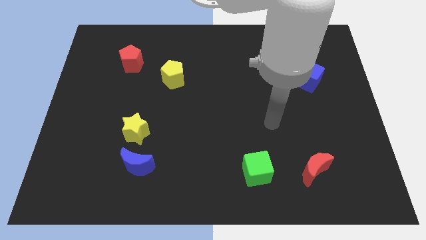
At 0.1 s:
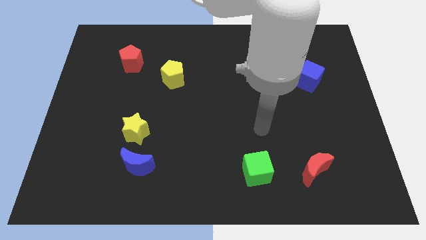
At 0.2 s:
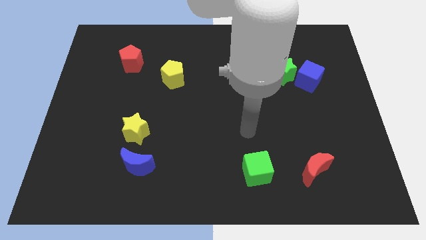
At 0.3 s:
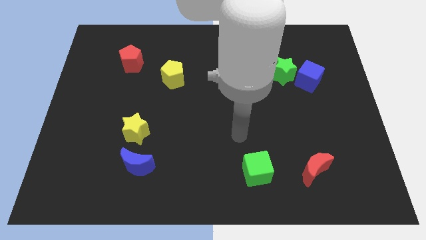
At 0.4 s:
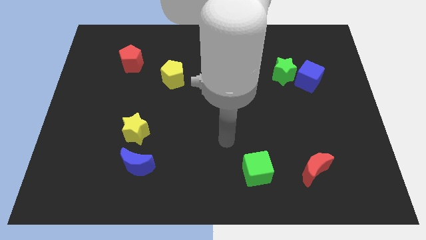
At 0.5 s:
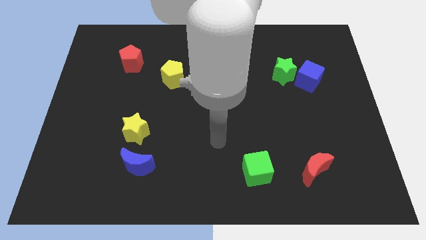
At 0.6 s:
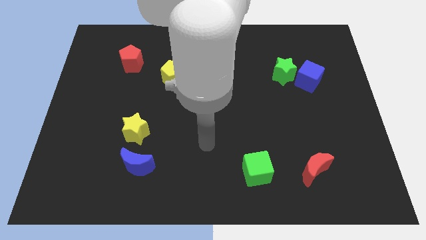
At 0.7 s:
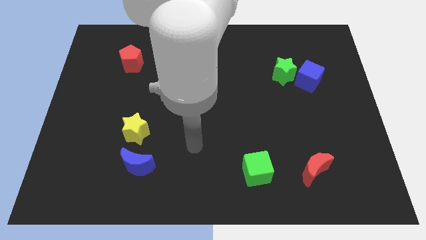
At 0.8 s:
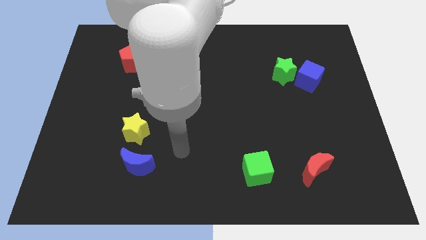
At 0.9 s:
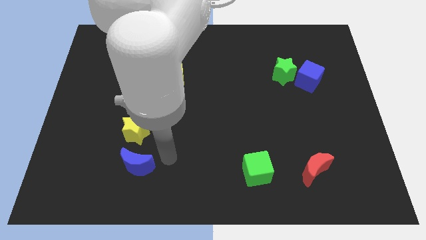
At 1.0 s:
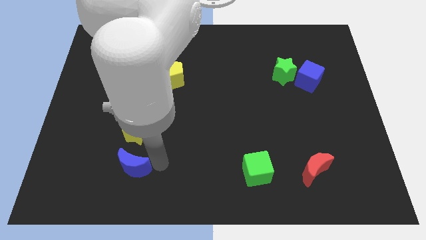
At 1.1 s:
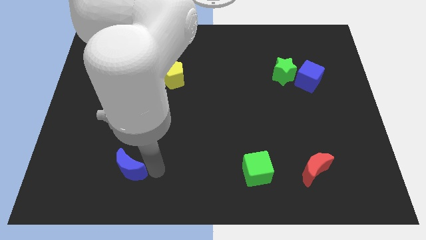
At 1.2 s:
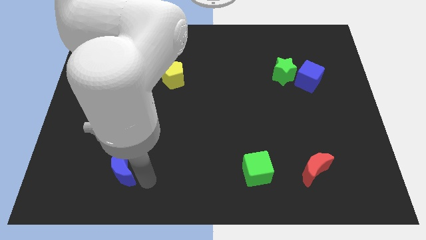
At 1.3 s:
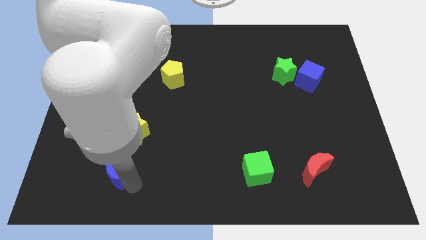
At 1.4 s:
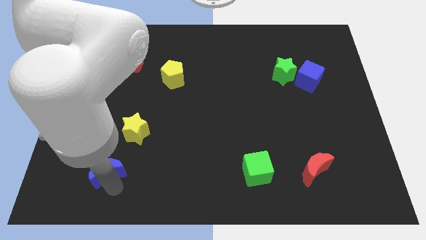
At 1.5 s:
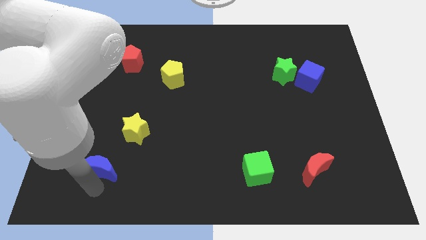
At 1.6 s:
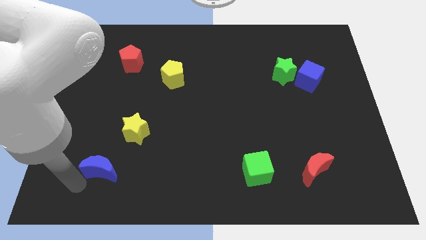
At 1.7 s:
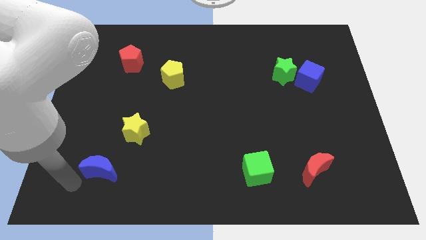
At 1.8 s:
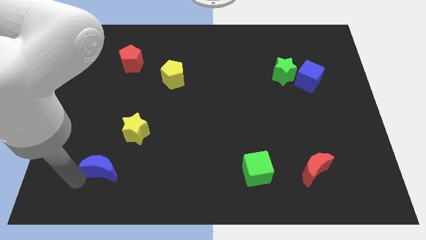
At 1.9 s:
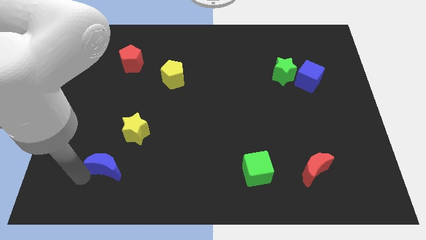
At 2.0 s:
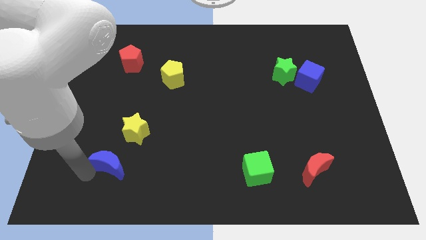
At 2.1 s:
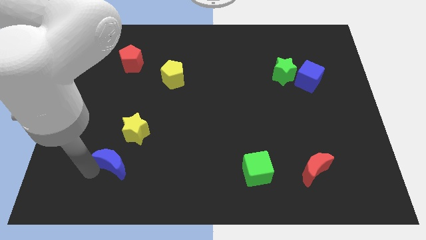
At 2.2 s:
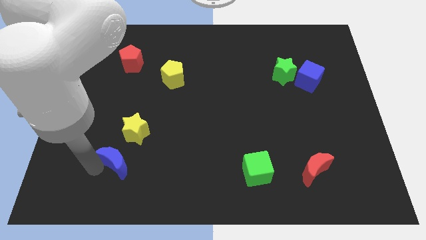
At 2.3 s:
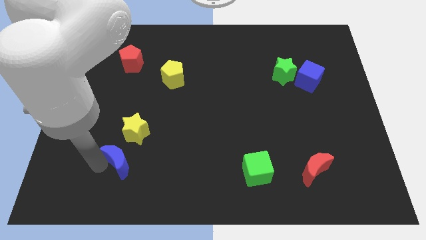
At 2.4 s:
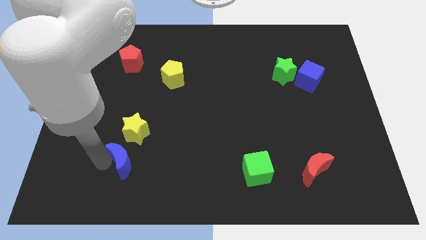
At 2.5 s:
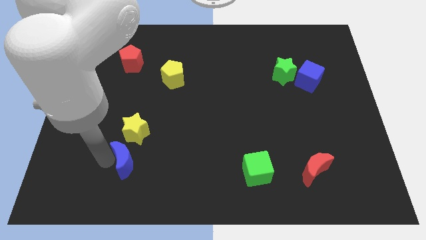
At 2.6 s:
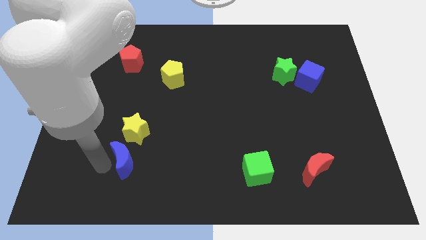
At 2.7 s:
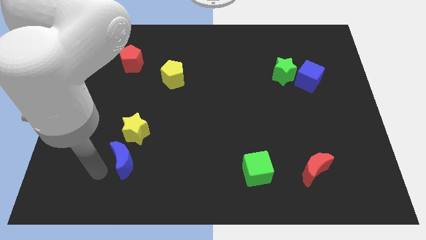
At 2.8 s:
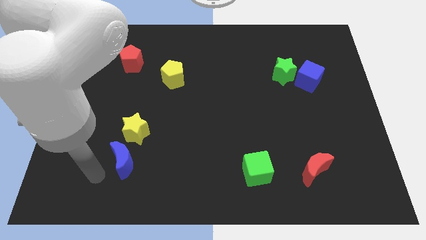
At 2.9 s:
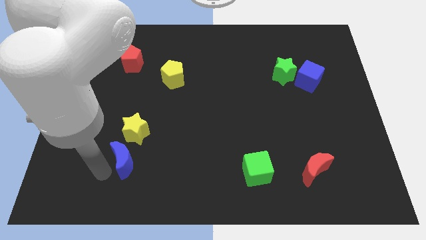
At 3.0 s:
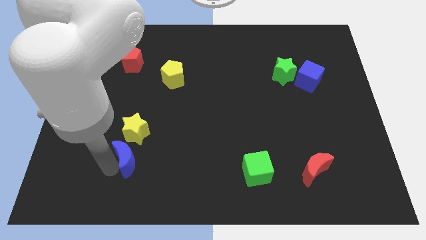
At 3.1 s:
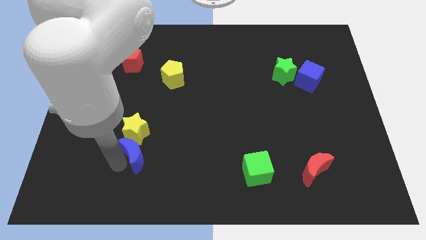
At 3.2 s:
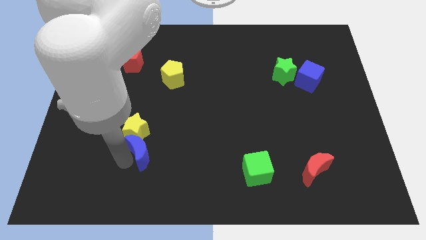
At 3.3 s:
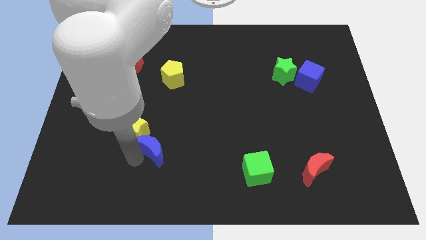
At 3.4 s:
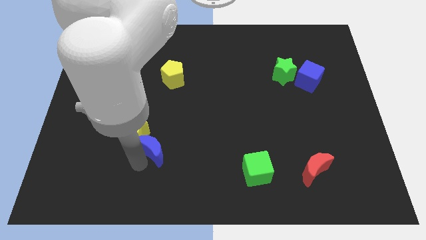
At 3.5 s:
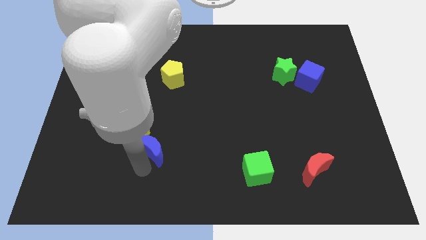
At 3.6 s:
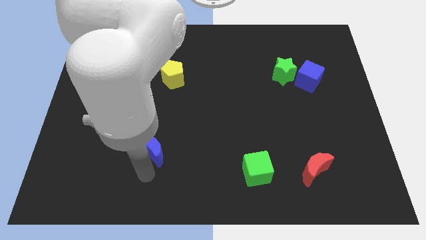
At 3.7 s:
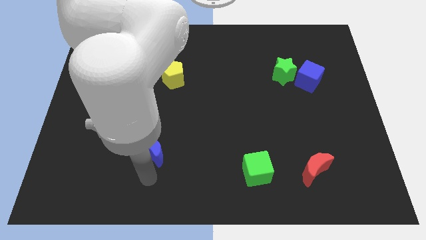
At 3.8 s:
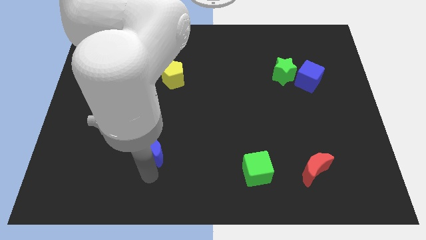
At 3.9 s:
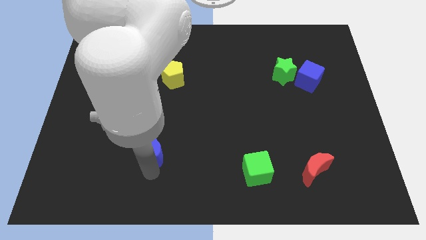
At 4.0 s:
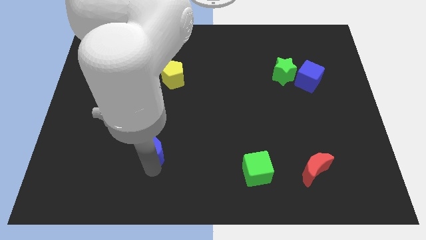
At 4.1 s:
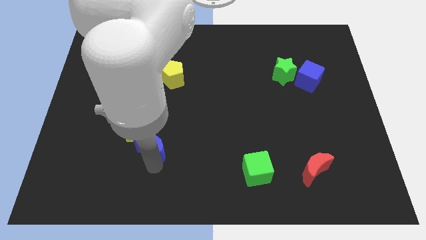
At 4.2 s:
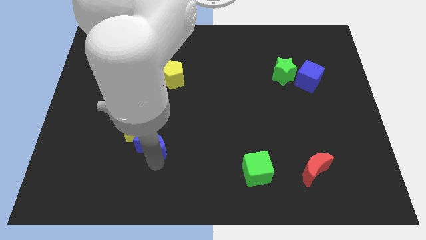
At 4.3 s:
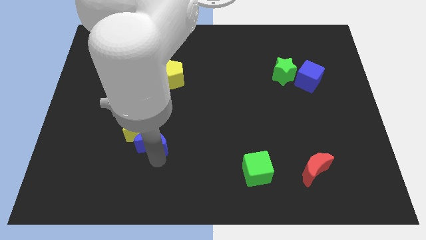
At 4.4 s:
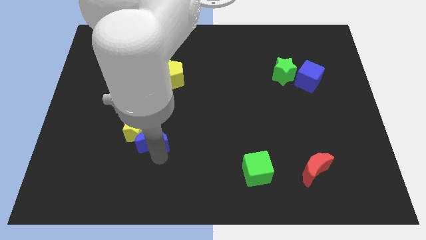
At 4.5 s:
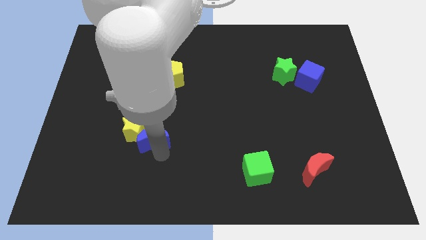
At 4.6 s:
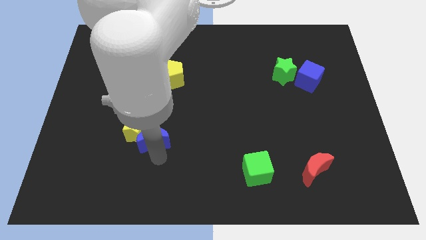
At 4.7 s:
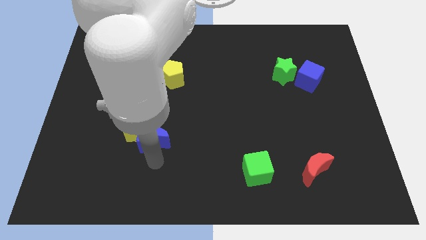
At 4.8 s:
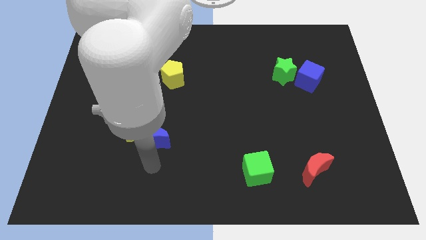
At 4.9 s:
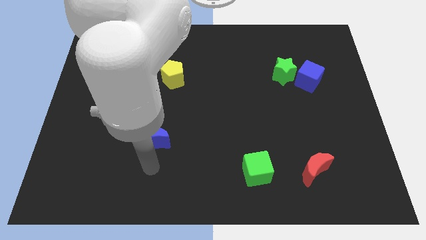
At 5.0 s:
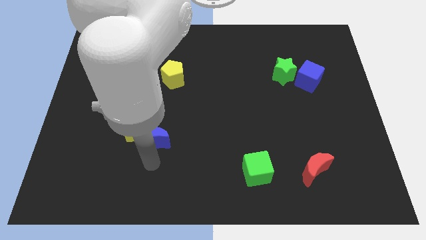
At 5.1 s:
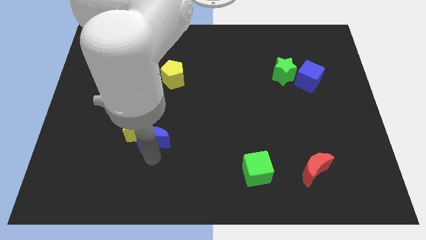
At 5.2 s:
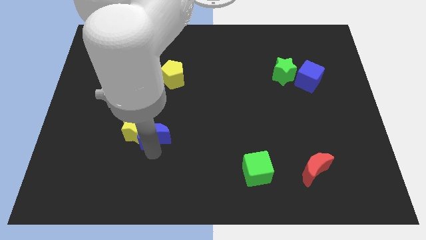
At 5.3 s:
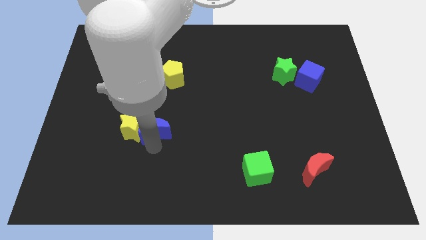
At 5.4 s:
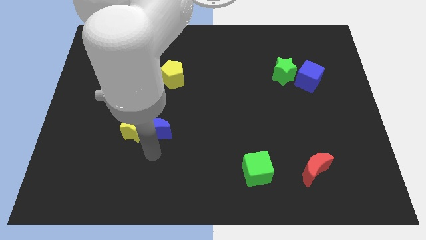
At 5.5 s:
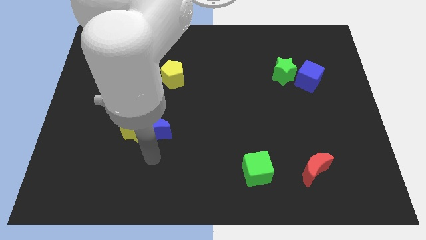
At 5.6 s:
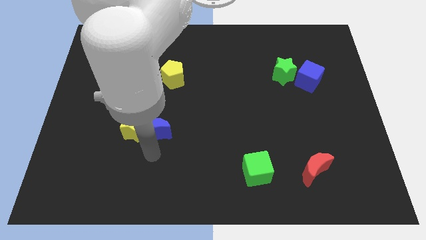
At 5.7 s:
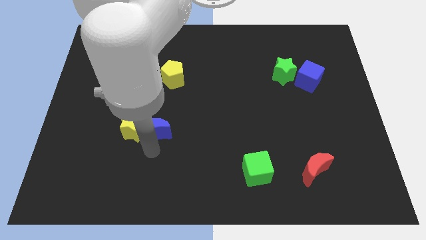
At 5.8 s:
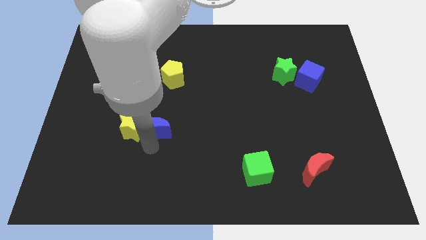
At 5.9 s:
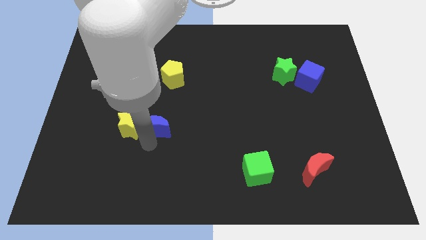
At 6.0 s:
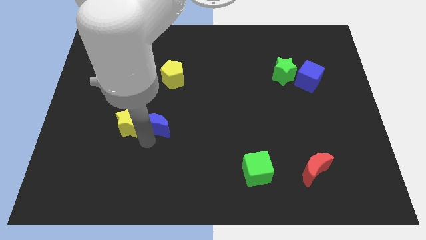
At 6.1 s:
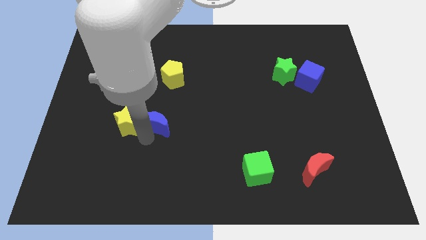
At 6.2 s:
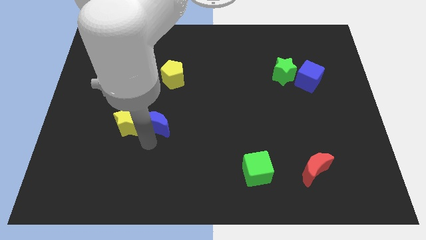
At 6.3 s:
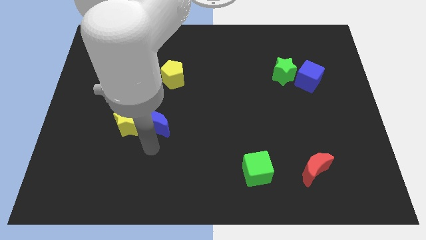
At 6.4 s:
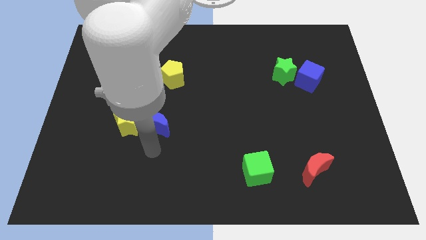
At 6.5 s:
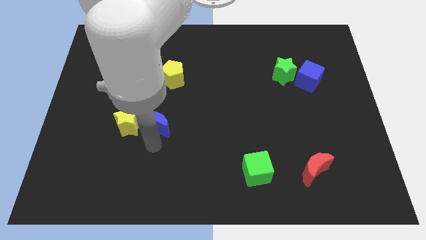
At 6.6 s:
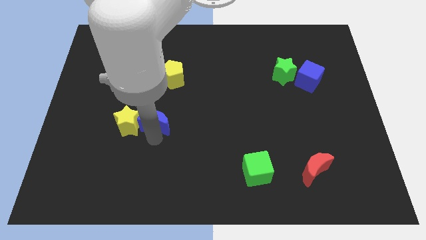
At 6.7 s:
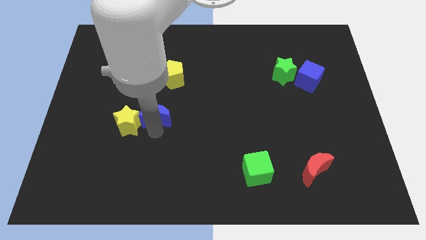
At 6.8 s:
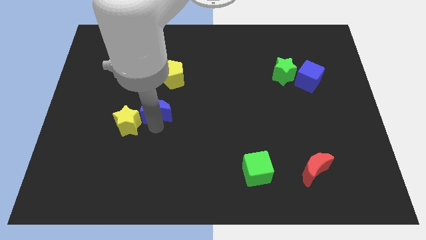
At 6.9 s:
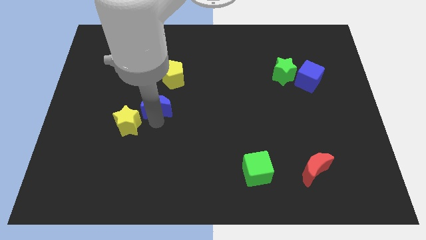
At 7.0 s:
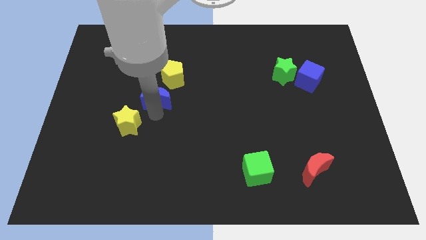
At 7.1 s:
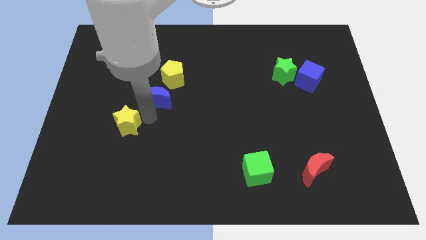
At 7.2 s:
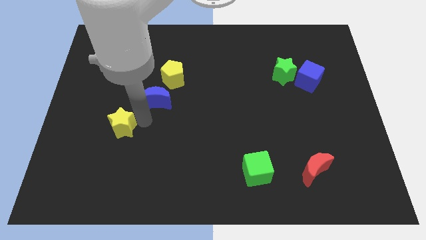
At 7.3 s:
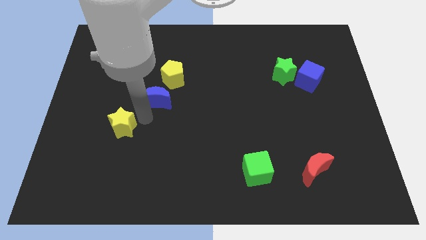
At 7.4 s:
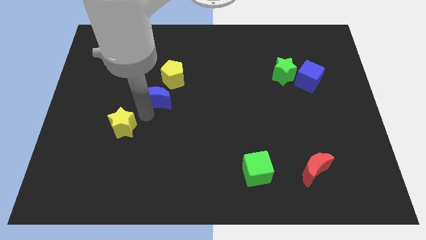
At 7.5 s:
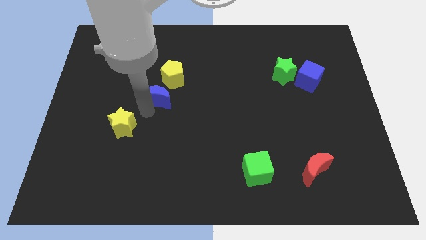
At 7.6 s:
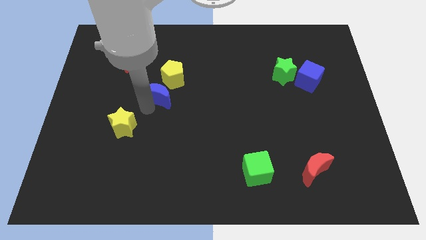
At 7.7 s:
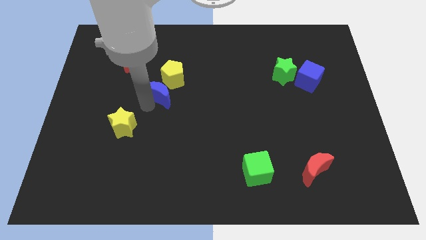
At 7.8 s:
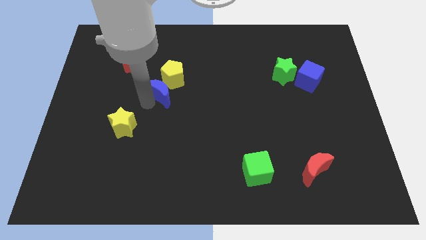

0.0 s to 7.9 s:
put the blue moon close to the yellow pentagon
